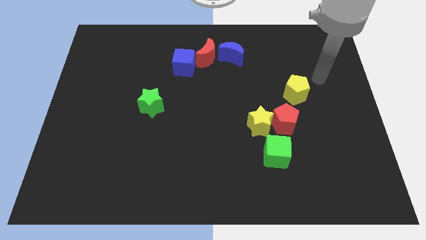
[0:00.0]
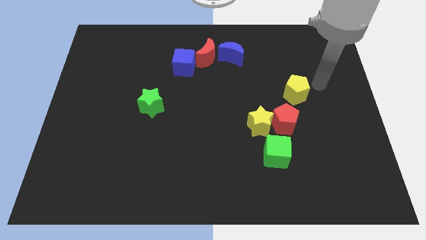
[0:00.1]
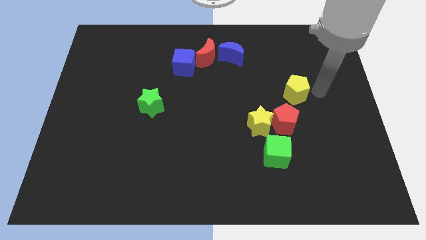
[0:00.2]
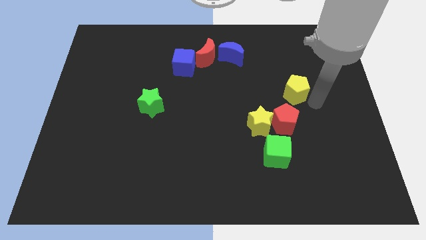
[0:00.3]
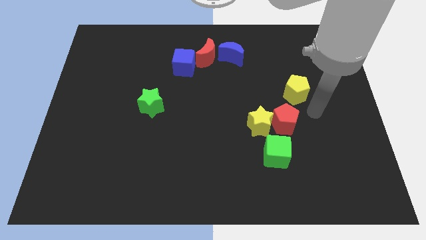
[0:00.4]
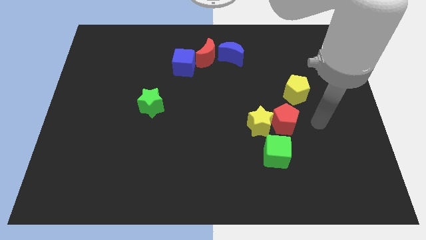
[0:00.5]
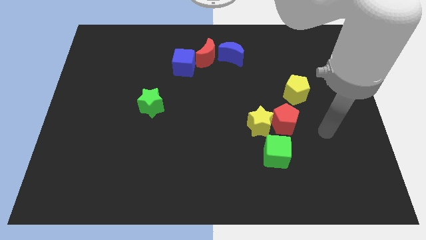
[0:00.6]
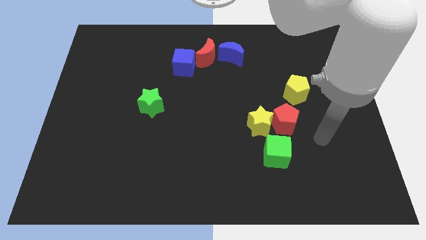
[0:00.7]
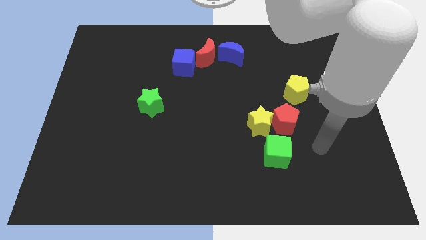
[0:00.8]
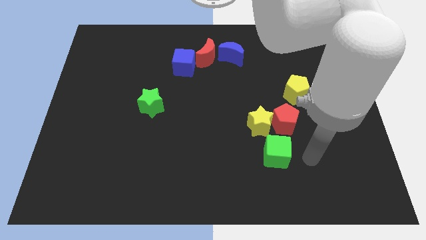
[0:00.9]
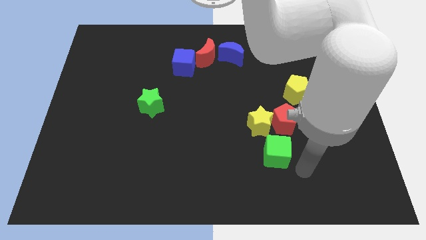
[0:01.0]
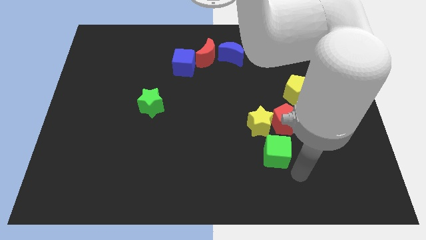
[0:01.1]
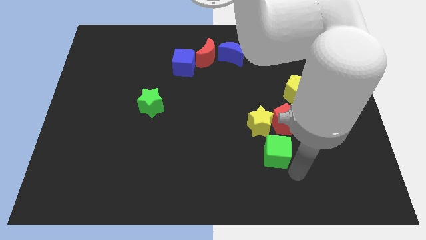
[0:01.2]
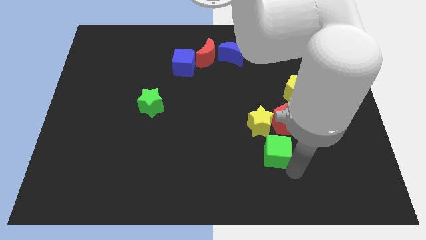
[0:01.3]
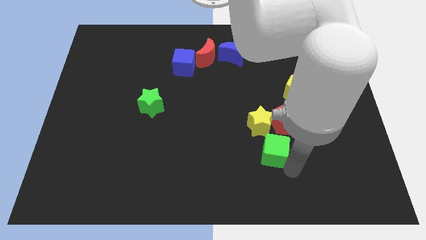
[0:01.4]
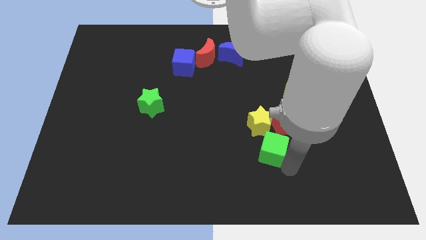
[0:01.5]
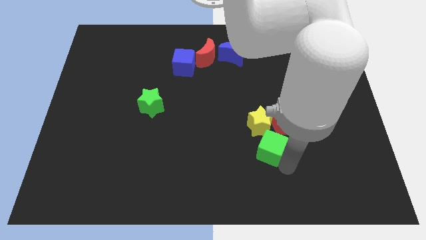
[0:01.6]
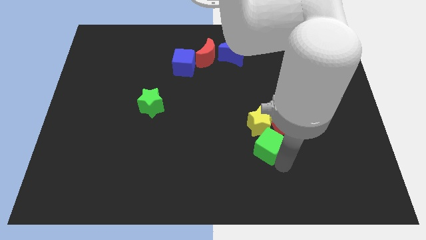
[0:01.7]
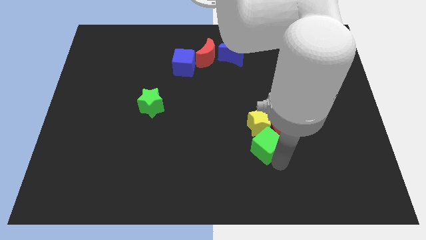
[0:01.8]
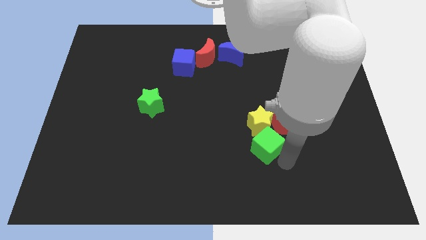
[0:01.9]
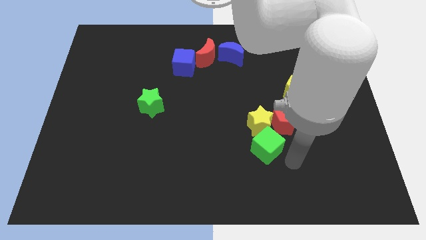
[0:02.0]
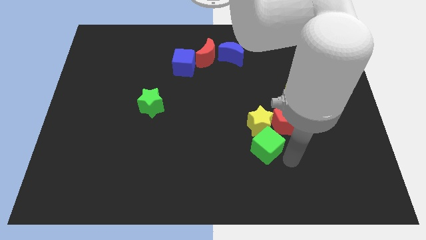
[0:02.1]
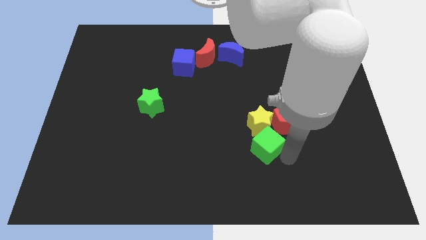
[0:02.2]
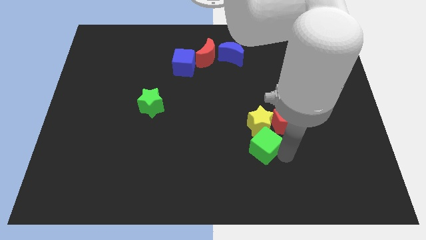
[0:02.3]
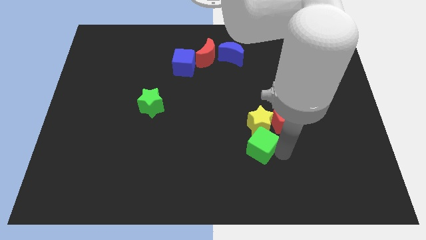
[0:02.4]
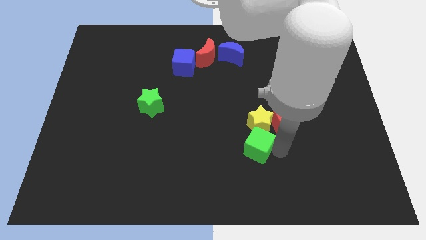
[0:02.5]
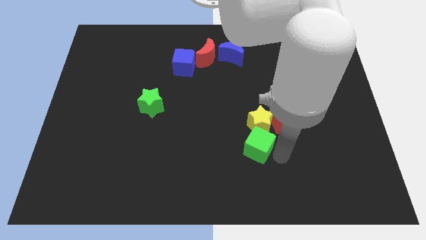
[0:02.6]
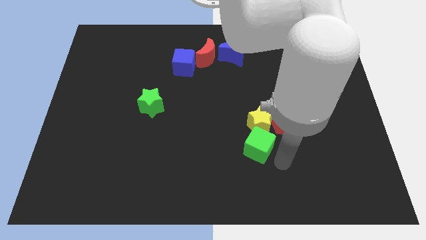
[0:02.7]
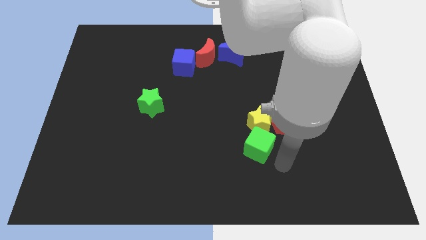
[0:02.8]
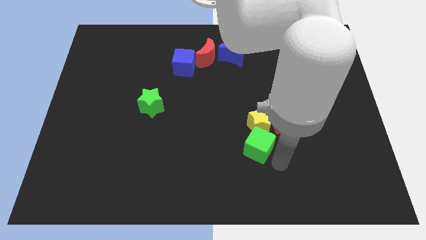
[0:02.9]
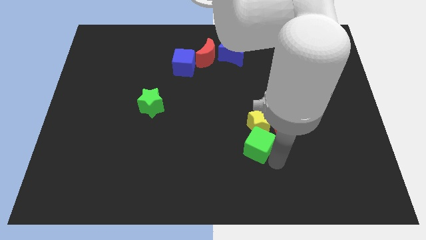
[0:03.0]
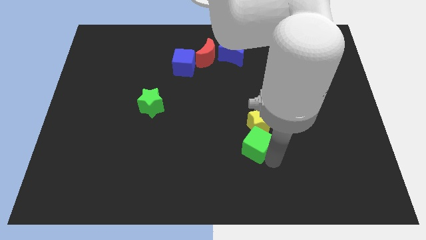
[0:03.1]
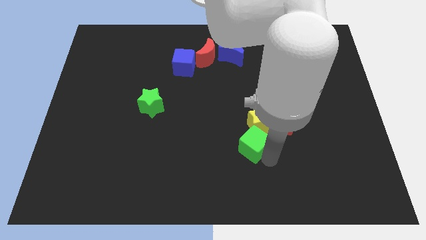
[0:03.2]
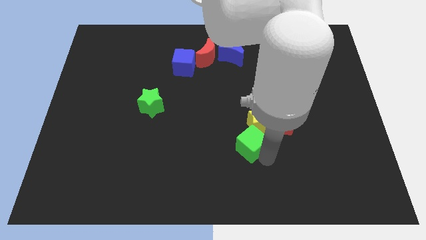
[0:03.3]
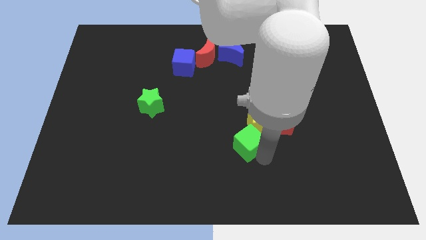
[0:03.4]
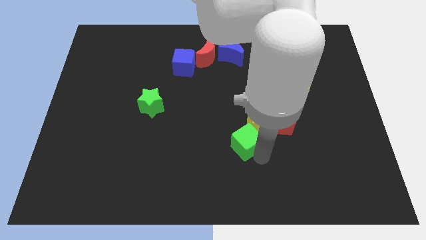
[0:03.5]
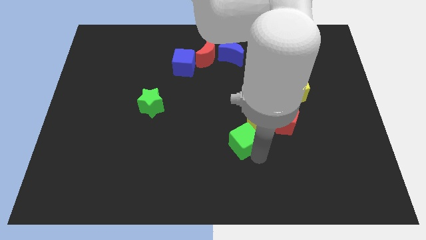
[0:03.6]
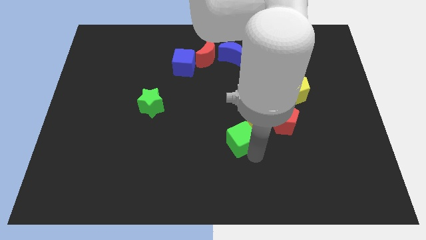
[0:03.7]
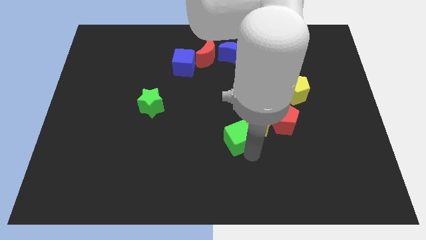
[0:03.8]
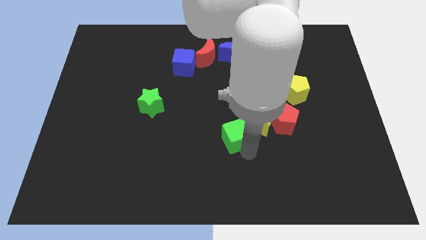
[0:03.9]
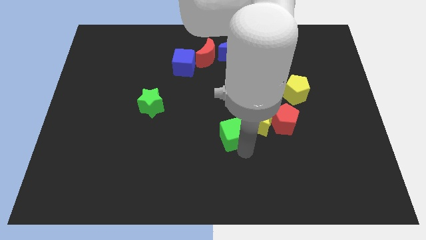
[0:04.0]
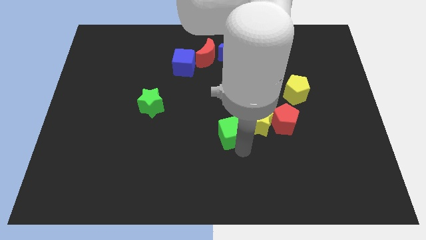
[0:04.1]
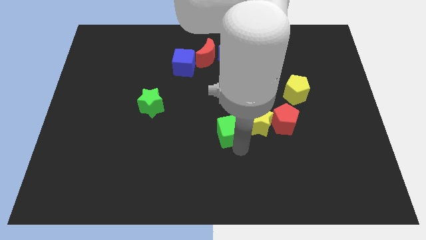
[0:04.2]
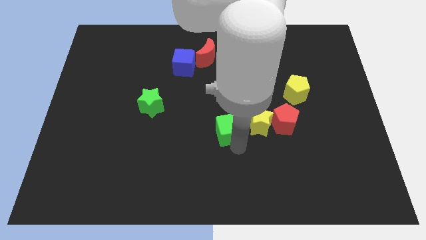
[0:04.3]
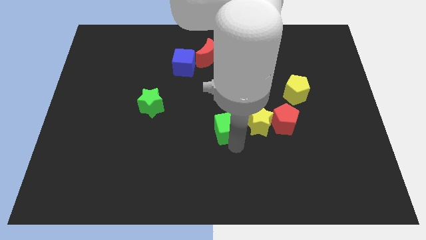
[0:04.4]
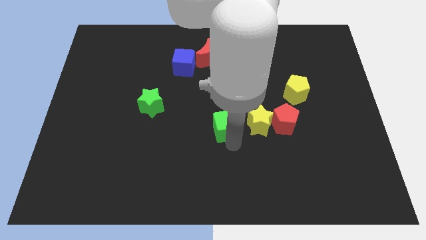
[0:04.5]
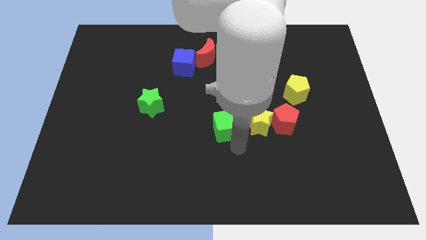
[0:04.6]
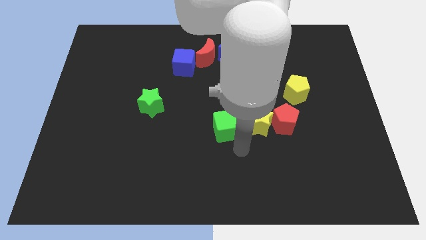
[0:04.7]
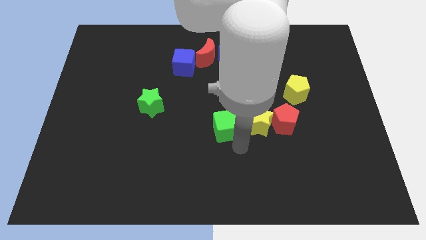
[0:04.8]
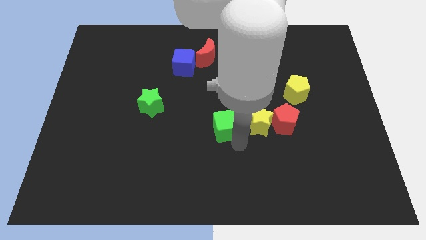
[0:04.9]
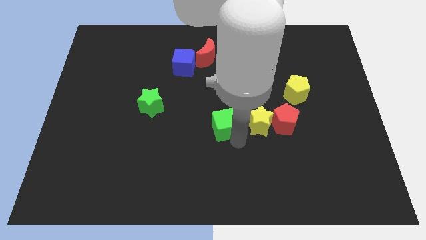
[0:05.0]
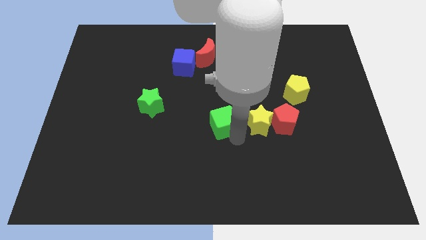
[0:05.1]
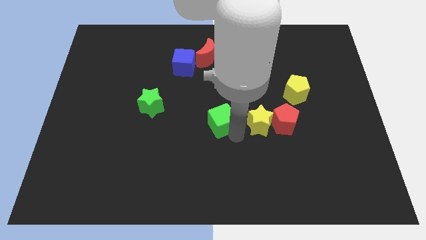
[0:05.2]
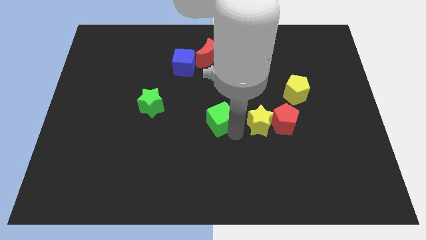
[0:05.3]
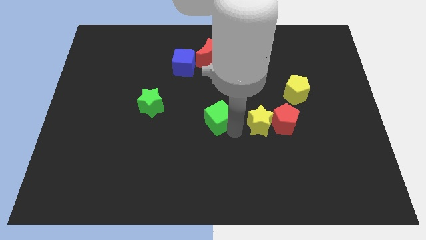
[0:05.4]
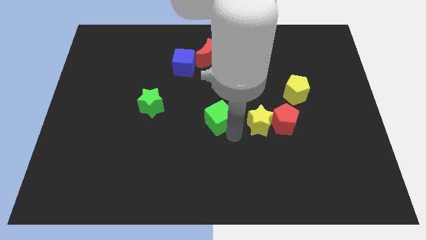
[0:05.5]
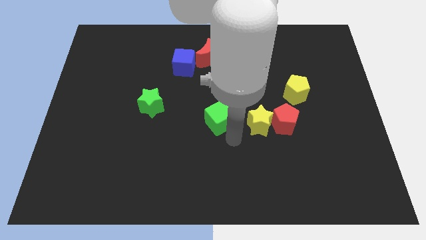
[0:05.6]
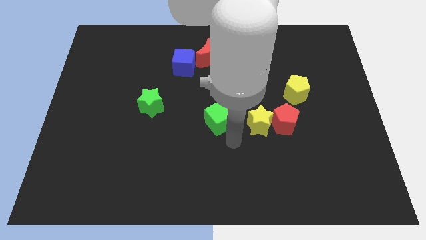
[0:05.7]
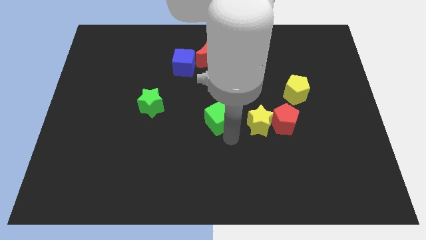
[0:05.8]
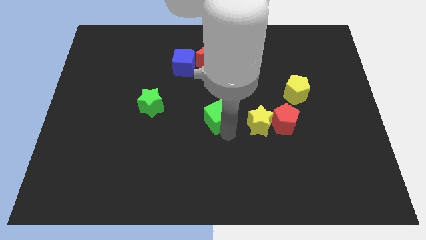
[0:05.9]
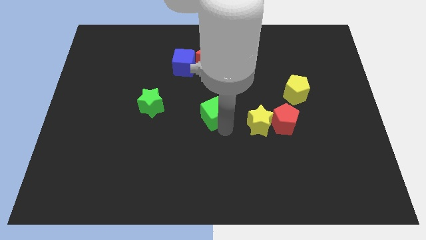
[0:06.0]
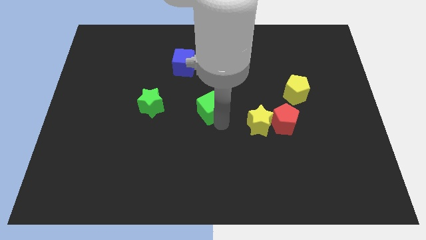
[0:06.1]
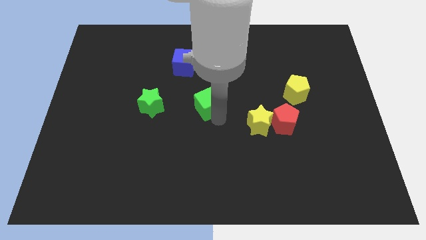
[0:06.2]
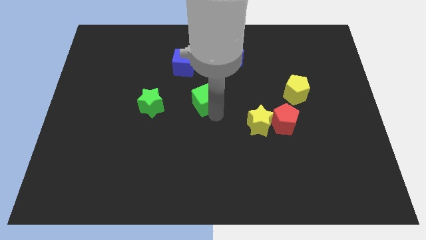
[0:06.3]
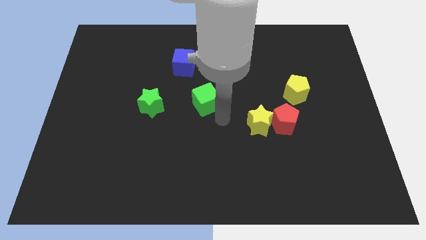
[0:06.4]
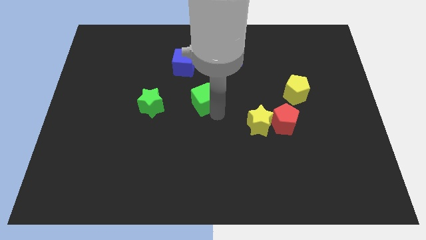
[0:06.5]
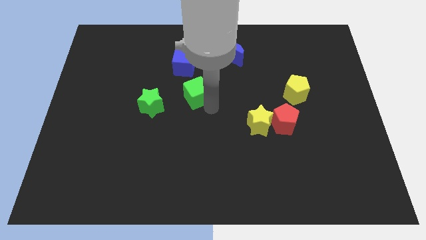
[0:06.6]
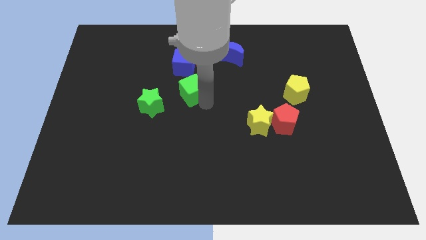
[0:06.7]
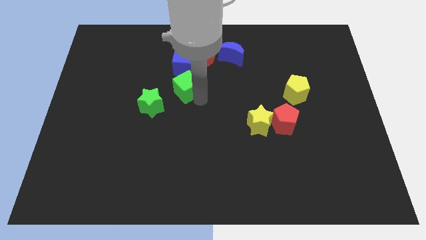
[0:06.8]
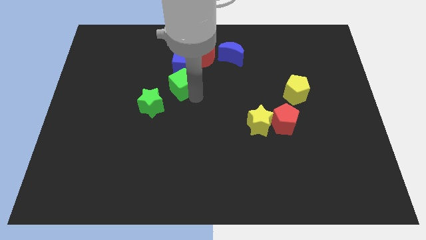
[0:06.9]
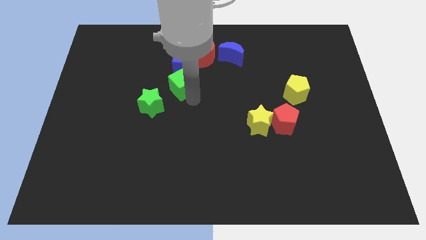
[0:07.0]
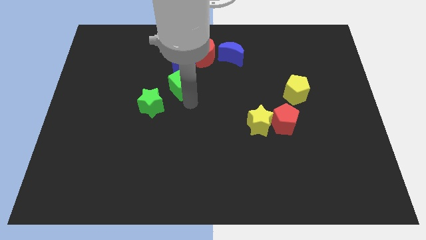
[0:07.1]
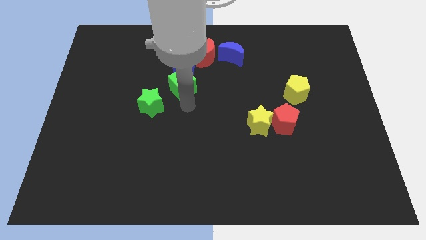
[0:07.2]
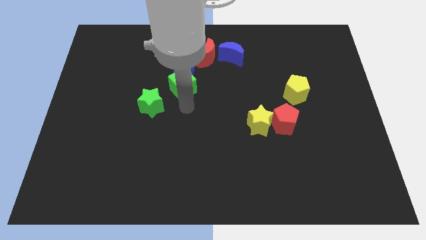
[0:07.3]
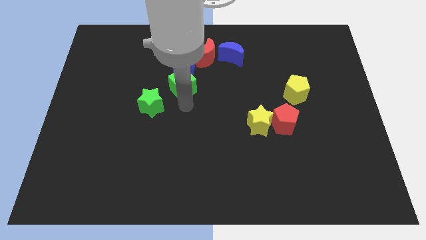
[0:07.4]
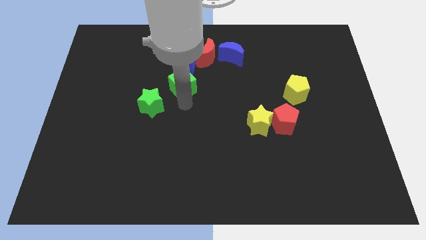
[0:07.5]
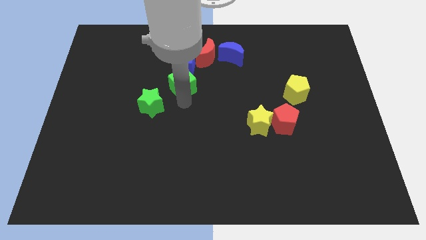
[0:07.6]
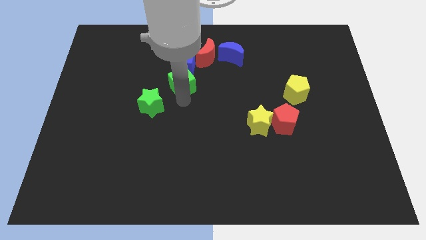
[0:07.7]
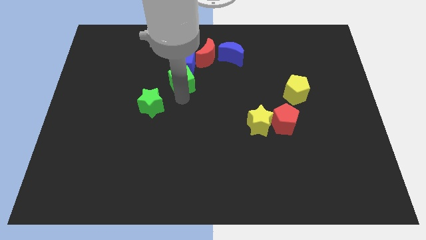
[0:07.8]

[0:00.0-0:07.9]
slide the green cube to the blue cube
